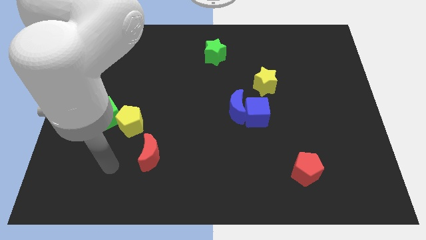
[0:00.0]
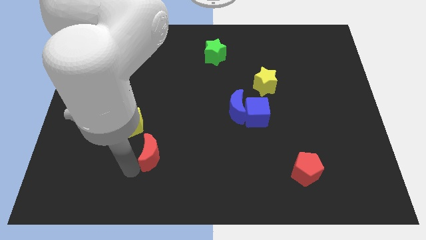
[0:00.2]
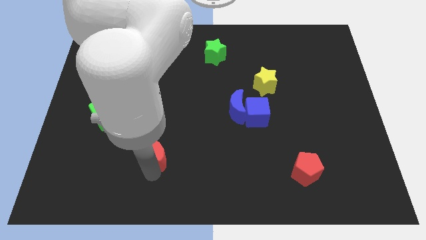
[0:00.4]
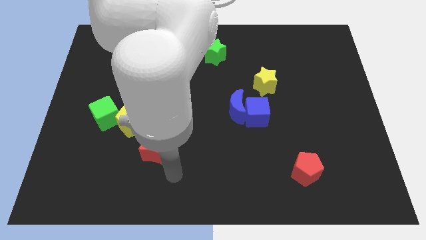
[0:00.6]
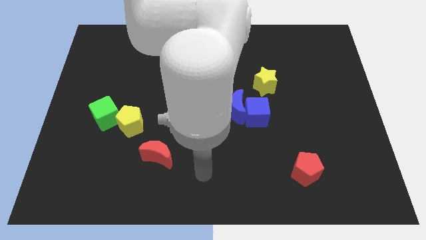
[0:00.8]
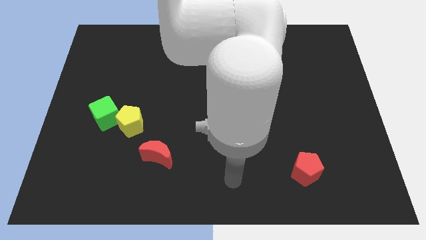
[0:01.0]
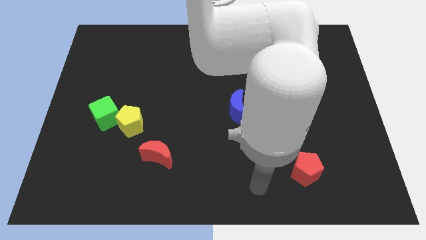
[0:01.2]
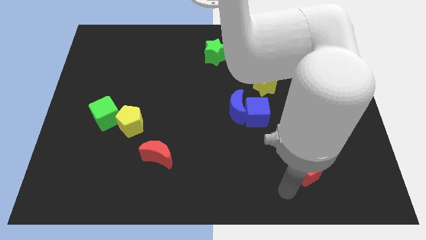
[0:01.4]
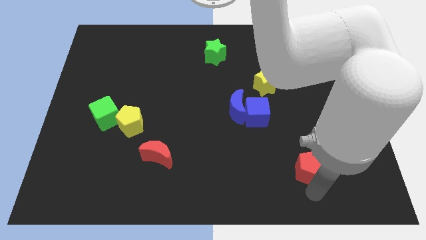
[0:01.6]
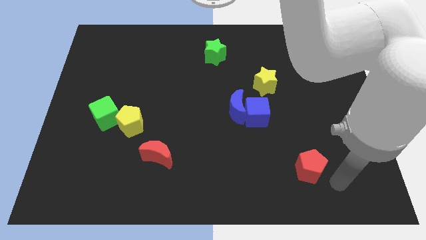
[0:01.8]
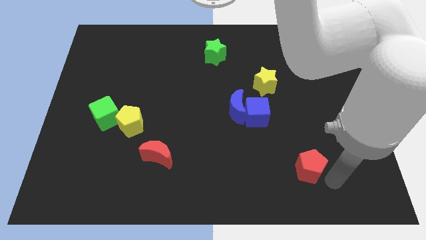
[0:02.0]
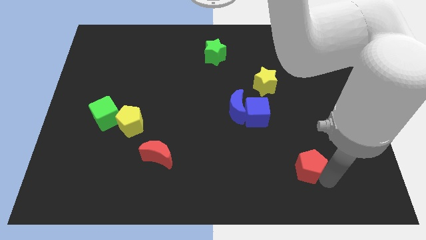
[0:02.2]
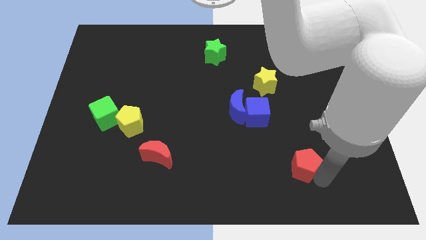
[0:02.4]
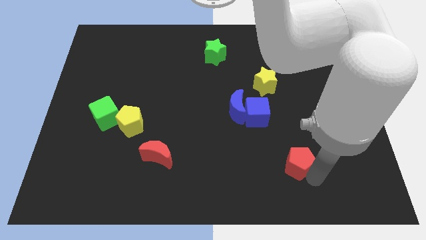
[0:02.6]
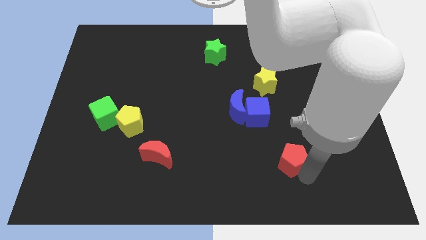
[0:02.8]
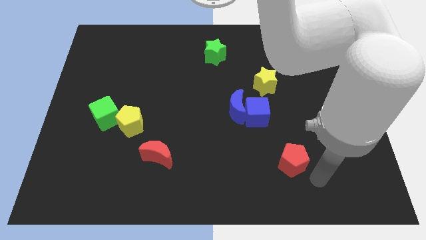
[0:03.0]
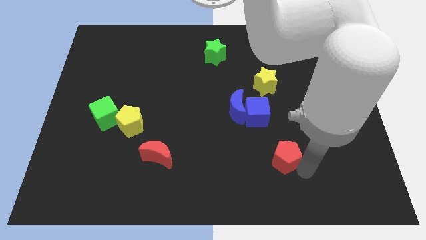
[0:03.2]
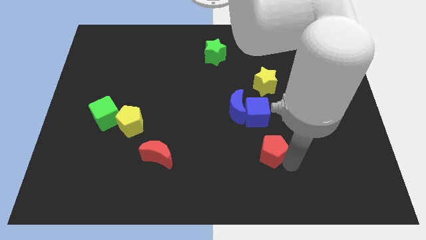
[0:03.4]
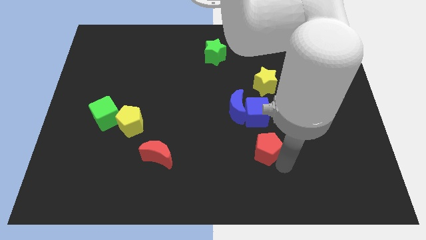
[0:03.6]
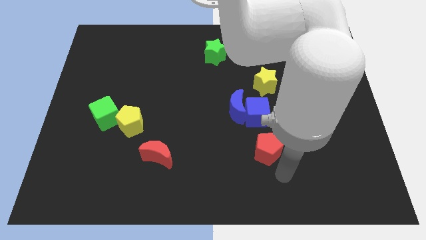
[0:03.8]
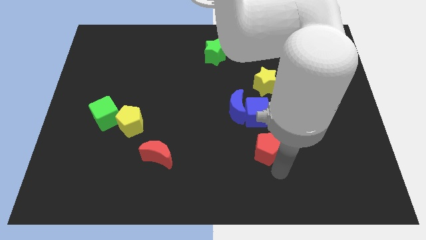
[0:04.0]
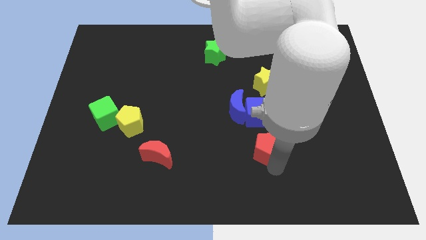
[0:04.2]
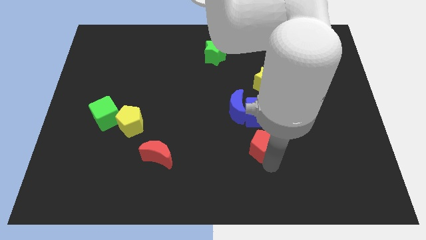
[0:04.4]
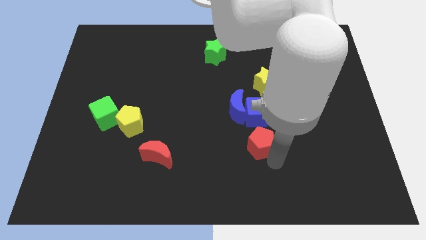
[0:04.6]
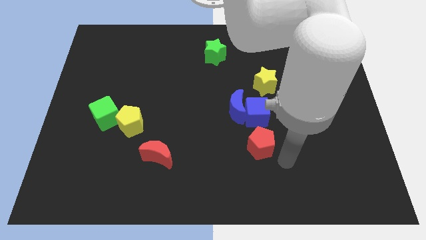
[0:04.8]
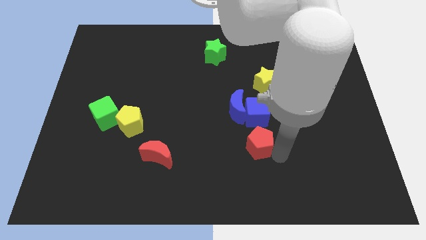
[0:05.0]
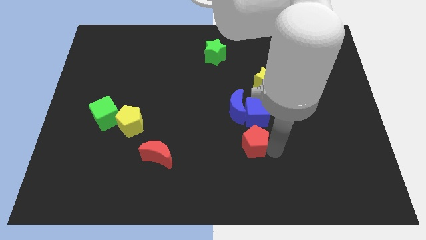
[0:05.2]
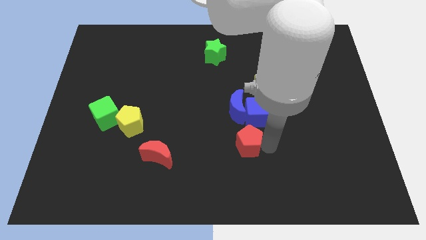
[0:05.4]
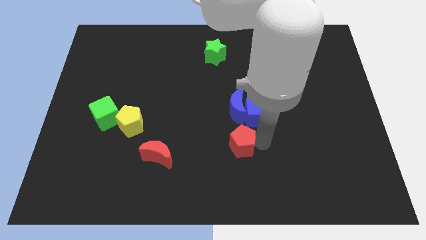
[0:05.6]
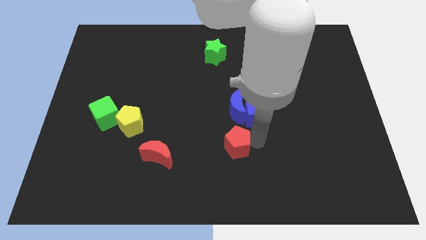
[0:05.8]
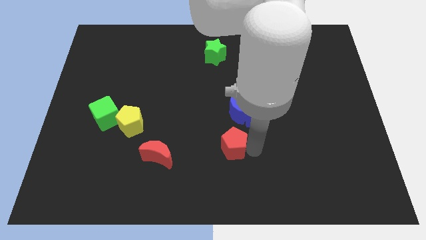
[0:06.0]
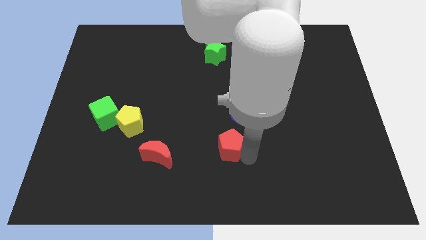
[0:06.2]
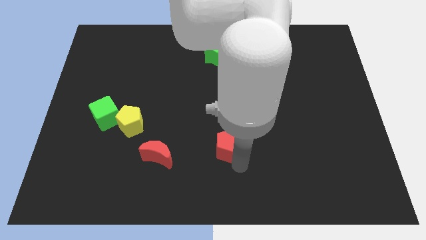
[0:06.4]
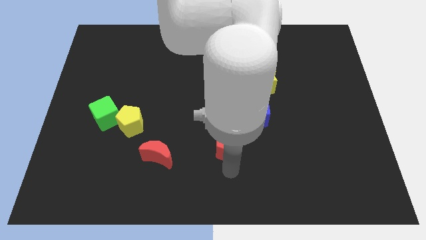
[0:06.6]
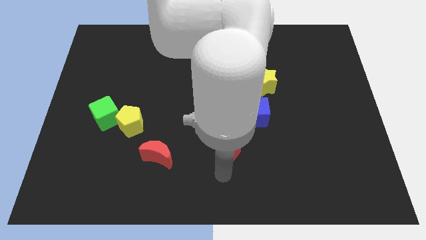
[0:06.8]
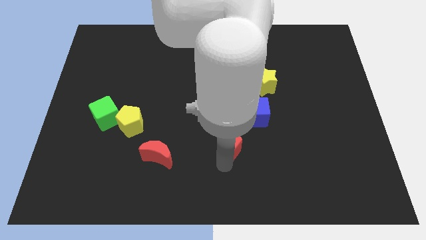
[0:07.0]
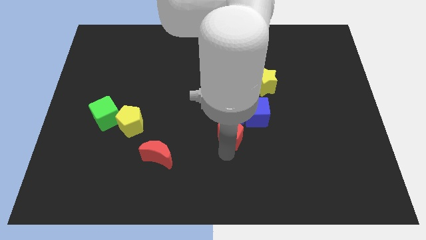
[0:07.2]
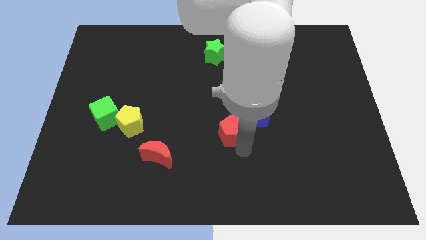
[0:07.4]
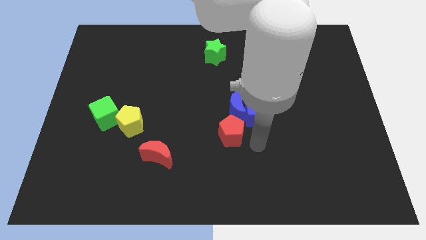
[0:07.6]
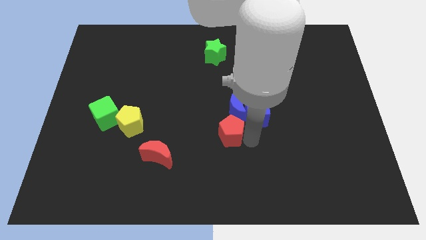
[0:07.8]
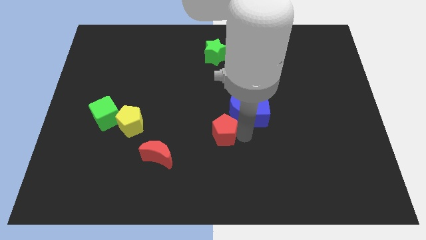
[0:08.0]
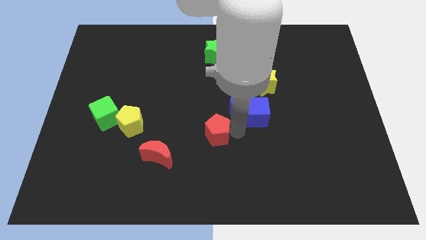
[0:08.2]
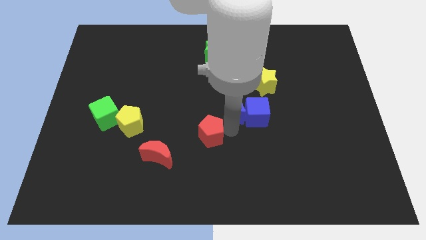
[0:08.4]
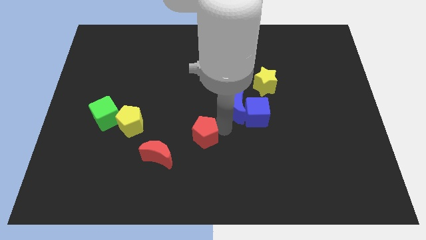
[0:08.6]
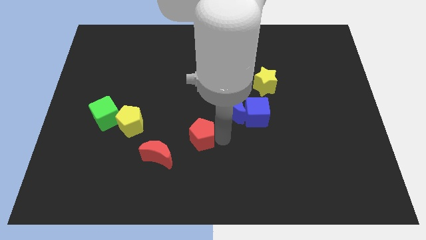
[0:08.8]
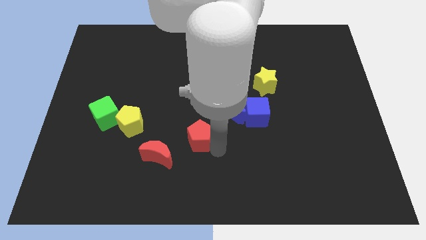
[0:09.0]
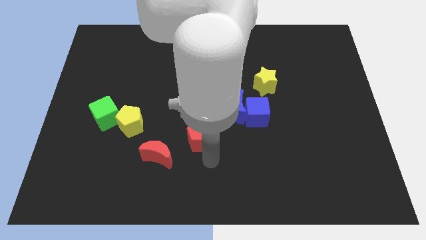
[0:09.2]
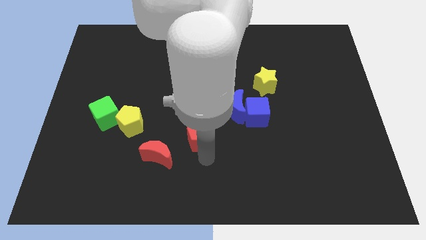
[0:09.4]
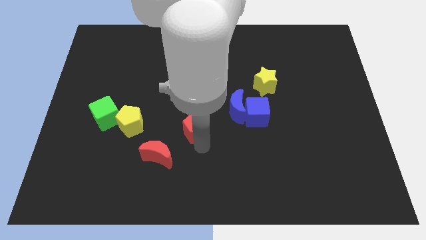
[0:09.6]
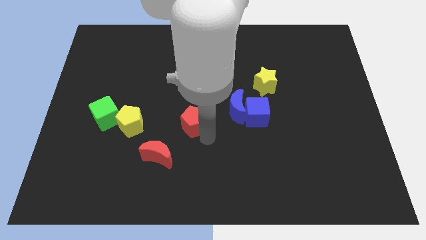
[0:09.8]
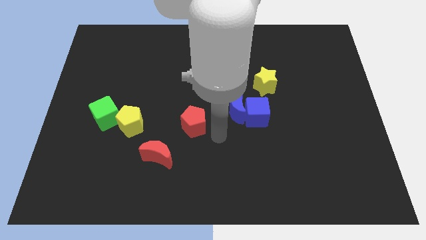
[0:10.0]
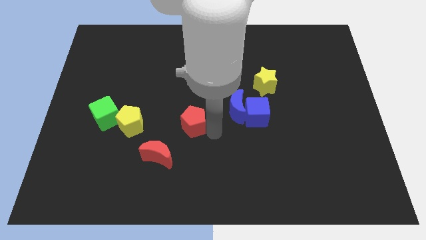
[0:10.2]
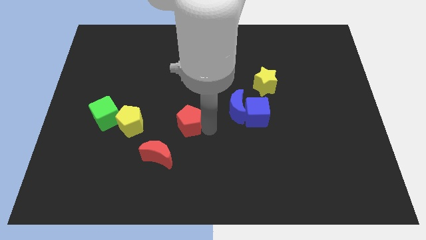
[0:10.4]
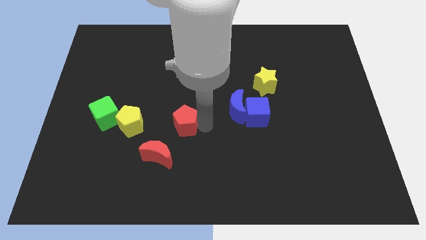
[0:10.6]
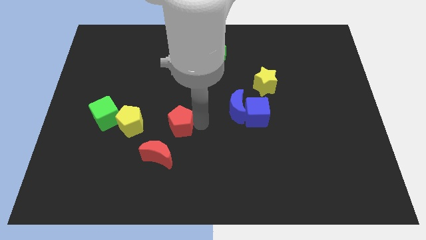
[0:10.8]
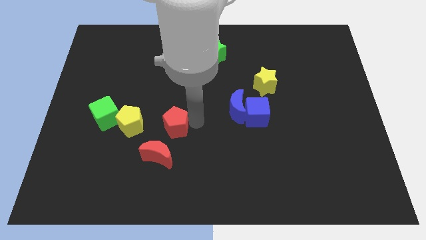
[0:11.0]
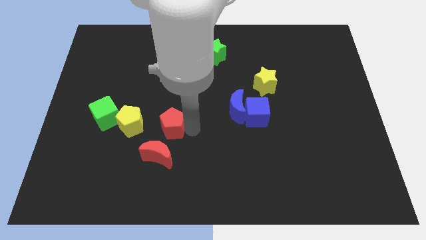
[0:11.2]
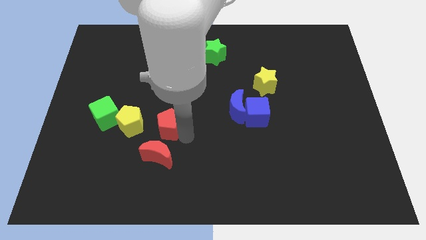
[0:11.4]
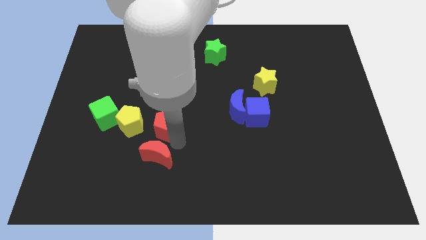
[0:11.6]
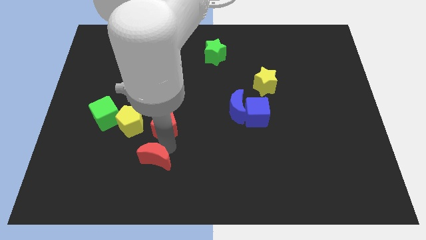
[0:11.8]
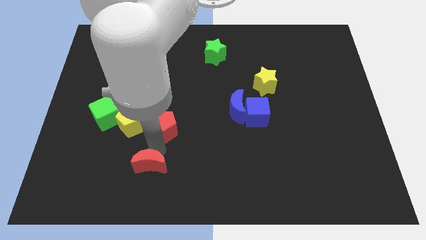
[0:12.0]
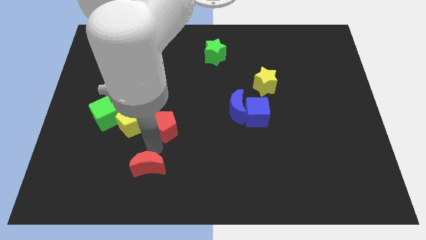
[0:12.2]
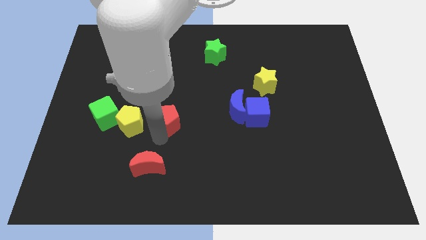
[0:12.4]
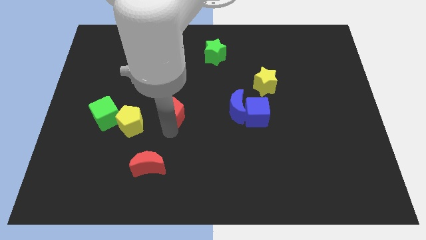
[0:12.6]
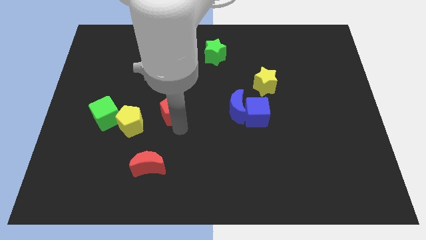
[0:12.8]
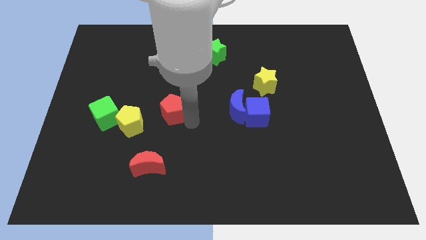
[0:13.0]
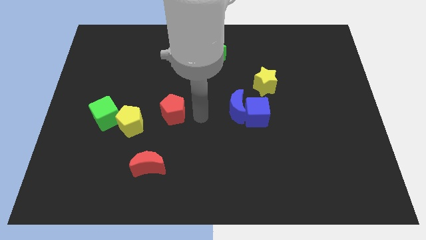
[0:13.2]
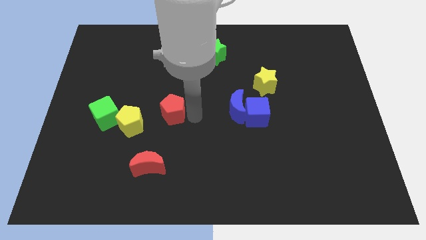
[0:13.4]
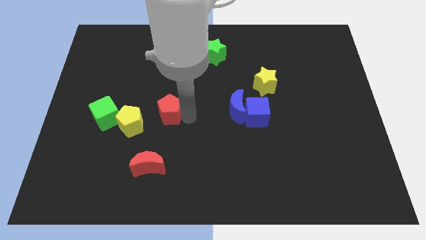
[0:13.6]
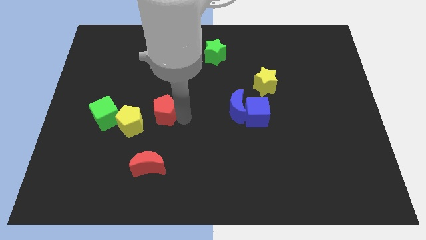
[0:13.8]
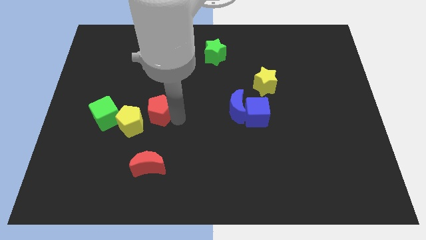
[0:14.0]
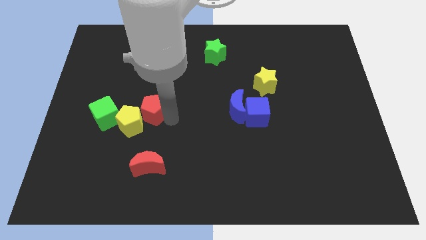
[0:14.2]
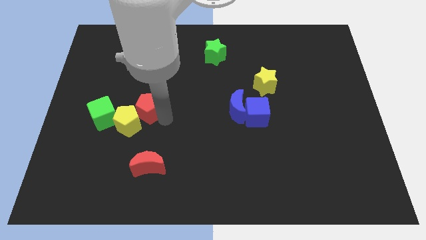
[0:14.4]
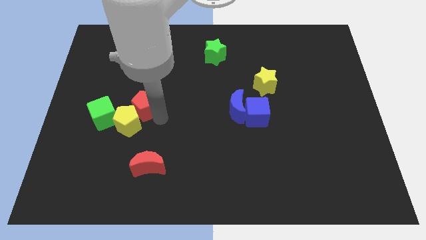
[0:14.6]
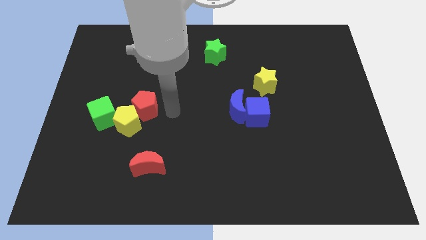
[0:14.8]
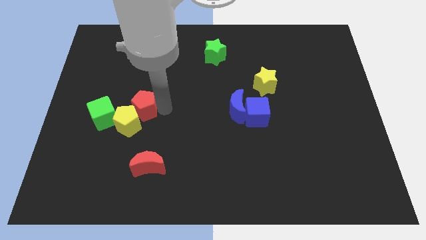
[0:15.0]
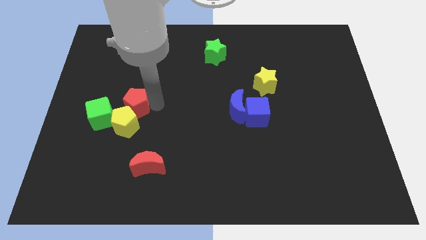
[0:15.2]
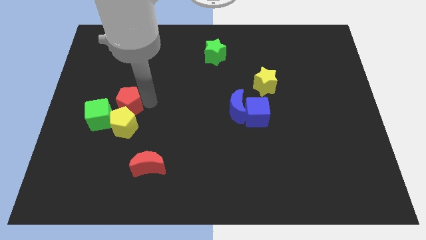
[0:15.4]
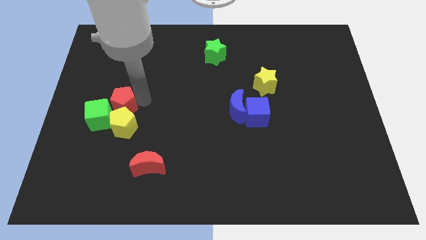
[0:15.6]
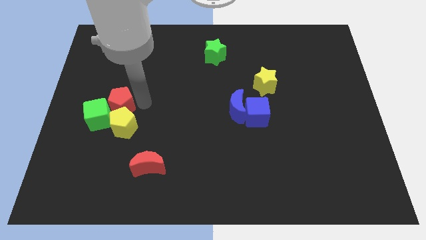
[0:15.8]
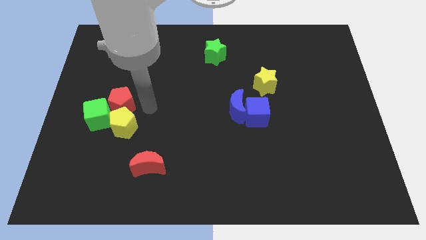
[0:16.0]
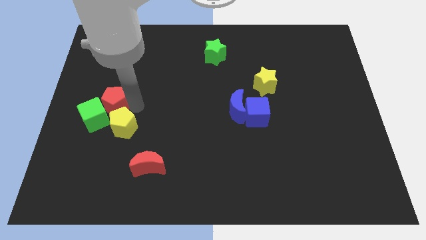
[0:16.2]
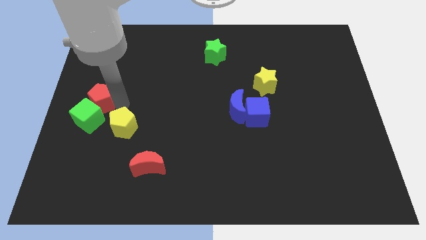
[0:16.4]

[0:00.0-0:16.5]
put the red pentagon to the left side
